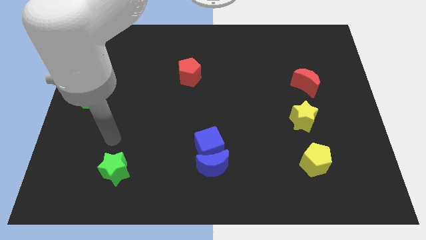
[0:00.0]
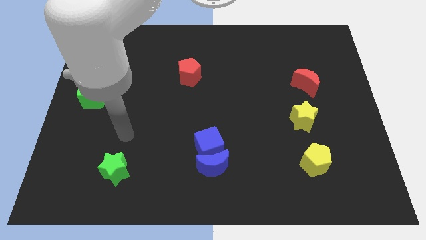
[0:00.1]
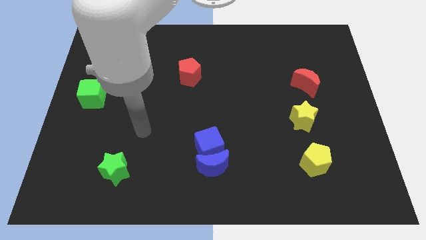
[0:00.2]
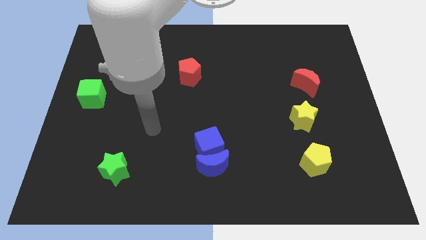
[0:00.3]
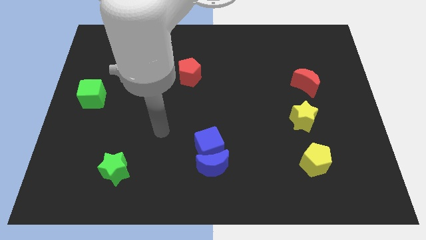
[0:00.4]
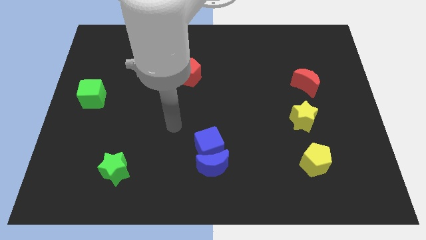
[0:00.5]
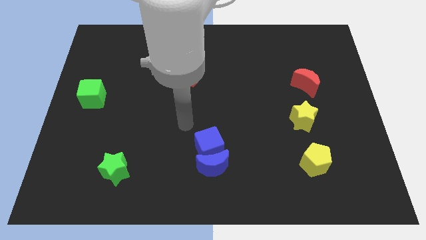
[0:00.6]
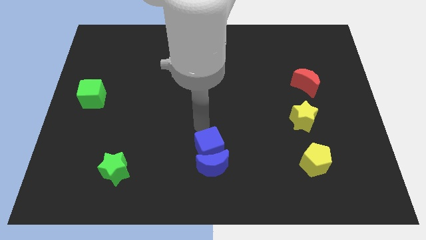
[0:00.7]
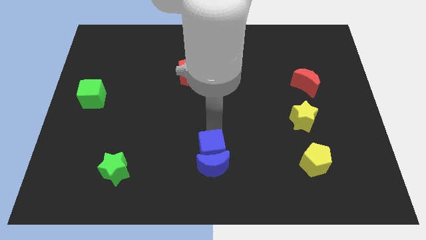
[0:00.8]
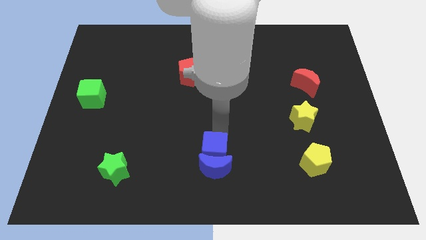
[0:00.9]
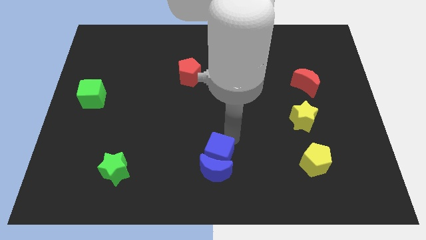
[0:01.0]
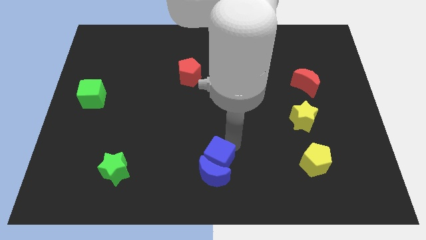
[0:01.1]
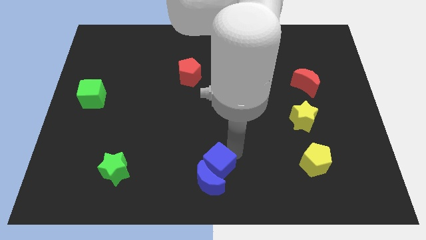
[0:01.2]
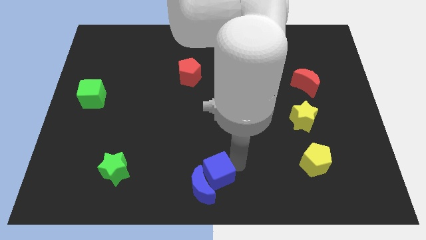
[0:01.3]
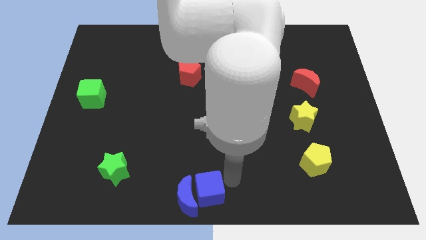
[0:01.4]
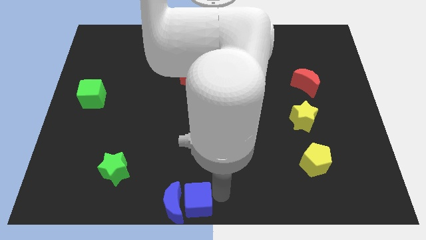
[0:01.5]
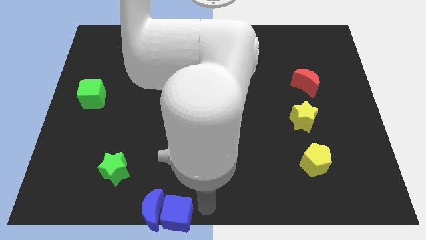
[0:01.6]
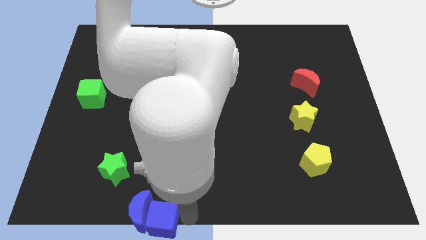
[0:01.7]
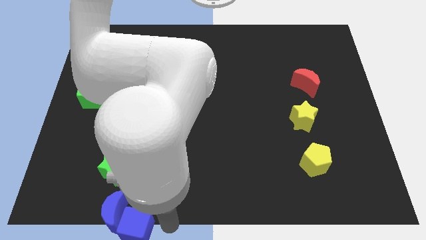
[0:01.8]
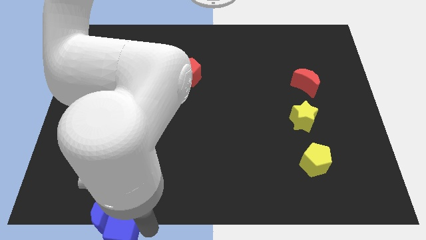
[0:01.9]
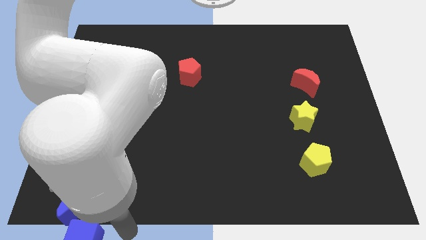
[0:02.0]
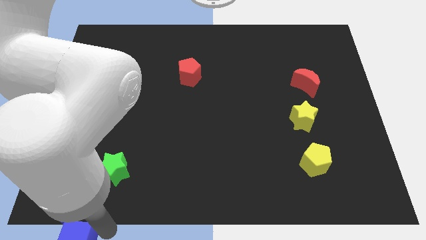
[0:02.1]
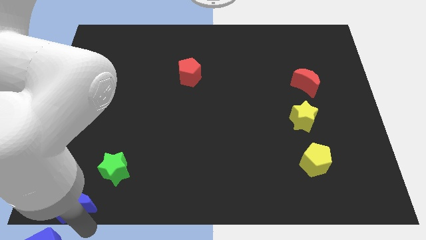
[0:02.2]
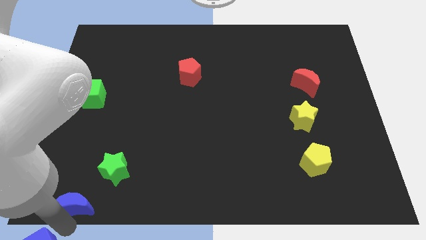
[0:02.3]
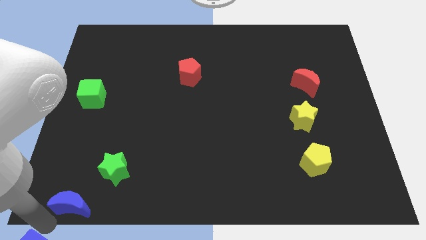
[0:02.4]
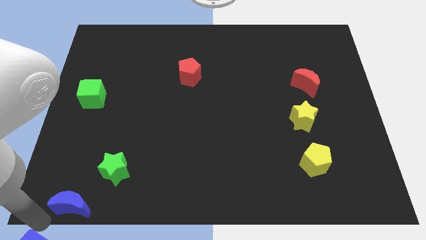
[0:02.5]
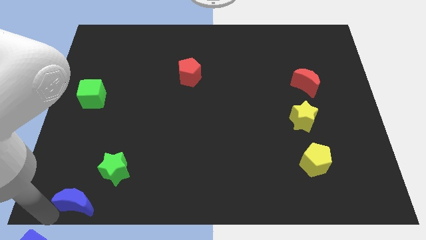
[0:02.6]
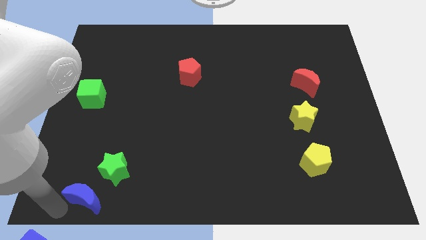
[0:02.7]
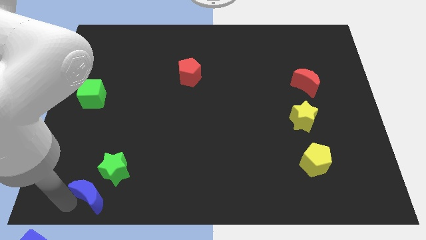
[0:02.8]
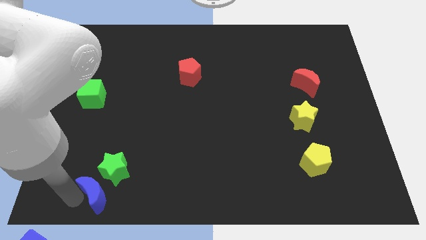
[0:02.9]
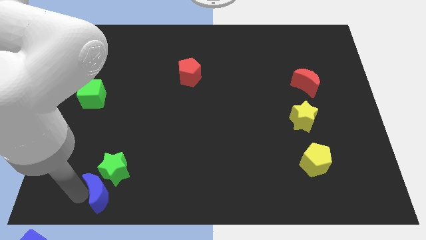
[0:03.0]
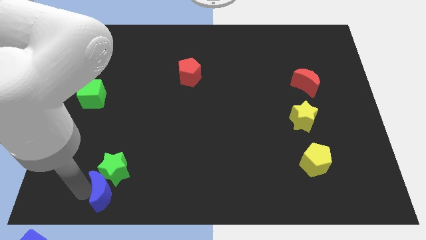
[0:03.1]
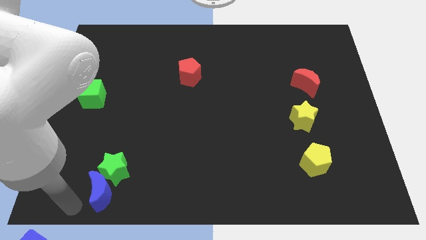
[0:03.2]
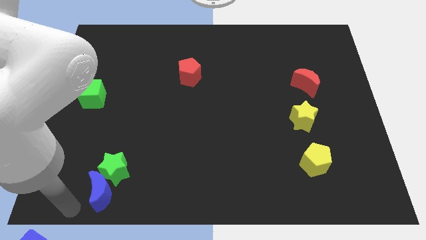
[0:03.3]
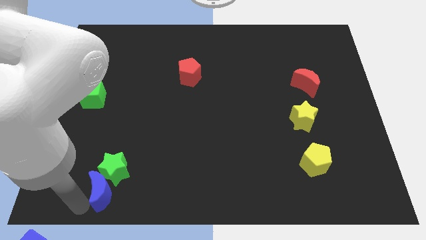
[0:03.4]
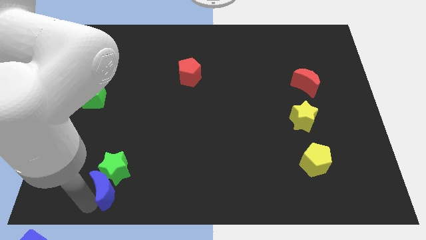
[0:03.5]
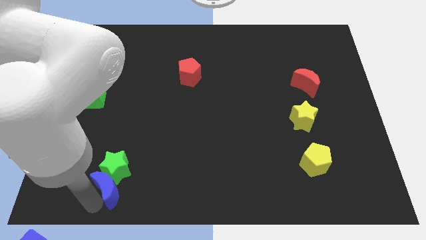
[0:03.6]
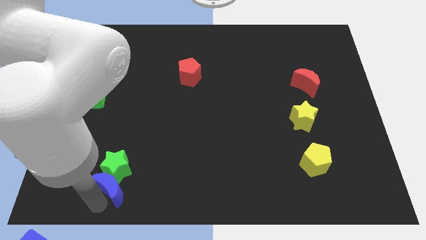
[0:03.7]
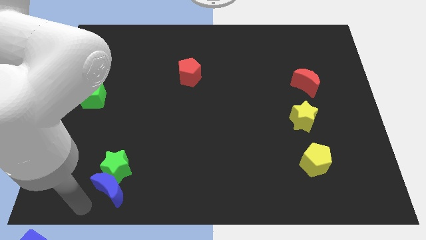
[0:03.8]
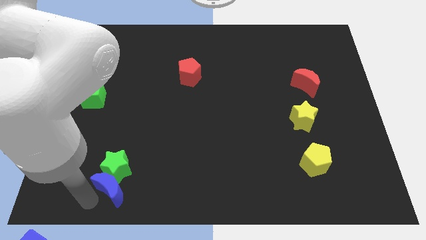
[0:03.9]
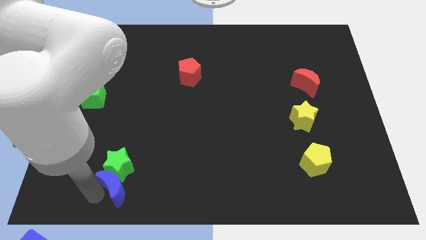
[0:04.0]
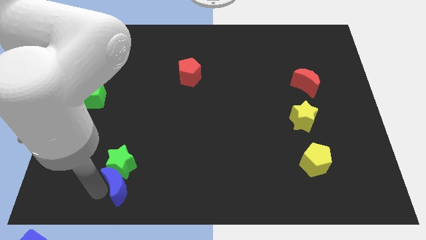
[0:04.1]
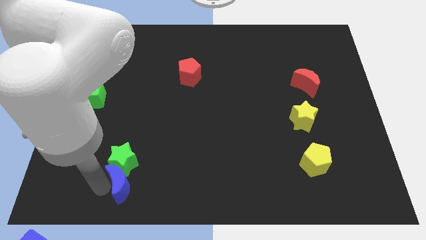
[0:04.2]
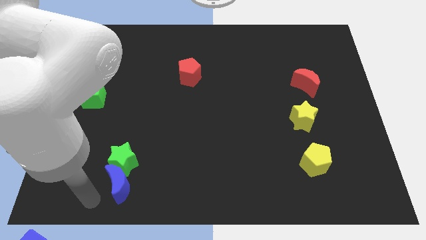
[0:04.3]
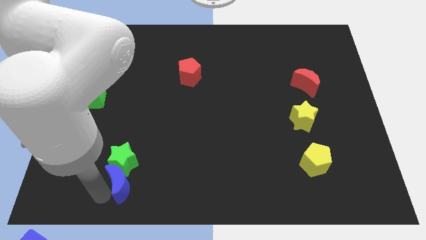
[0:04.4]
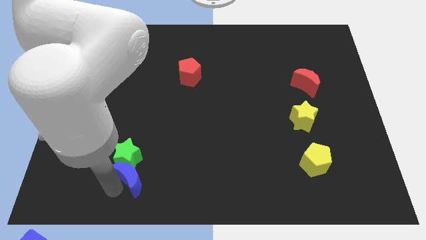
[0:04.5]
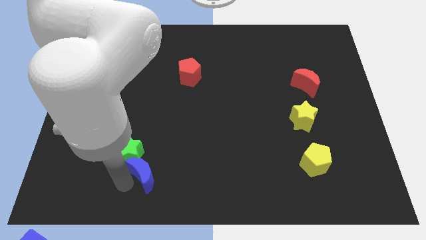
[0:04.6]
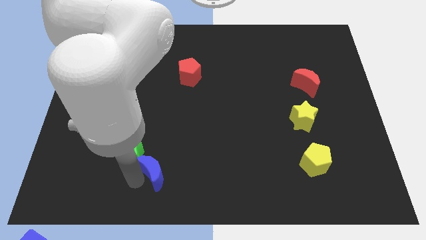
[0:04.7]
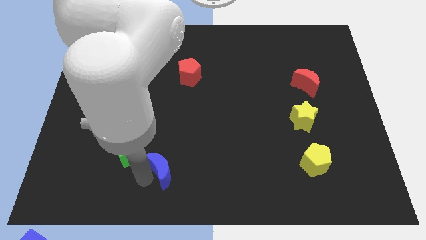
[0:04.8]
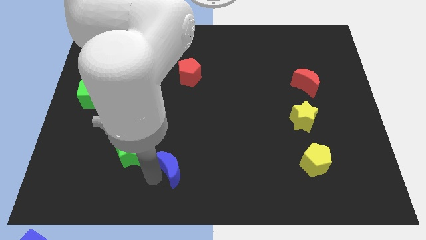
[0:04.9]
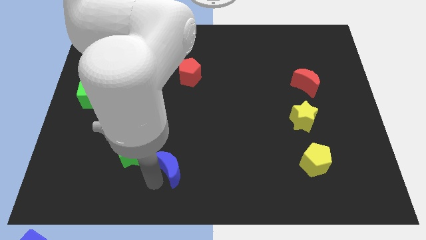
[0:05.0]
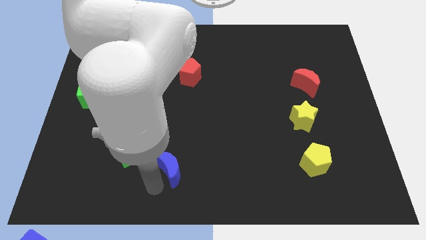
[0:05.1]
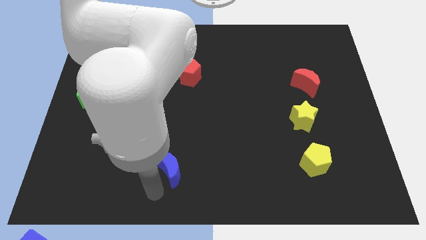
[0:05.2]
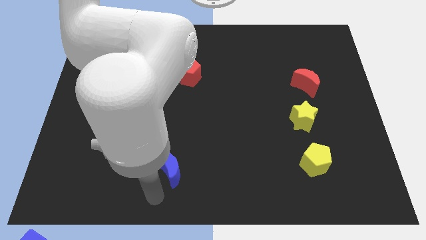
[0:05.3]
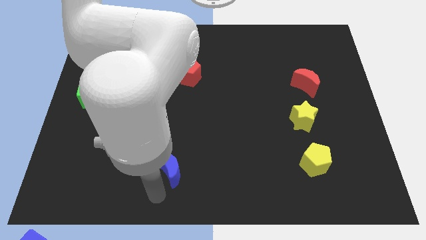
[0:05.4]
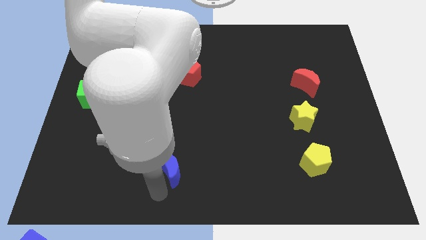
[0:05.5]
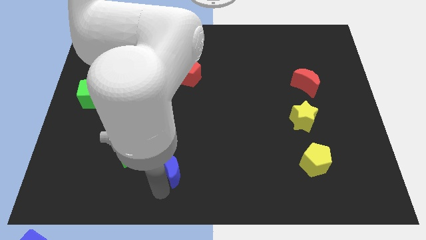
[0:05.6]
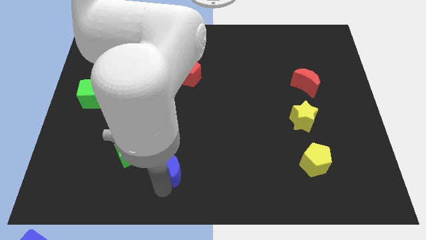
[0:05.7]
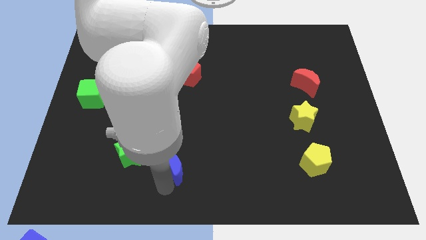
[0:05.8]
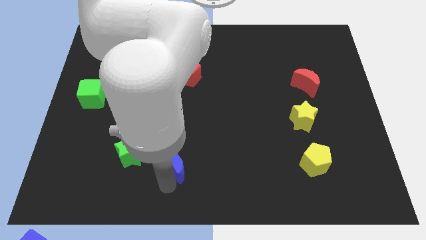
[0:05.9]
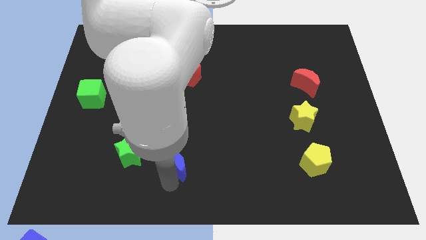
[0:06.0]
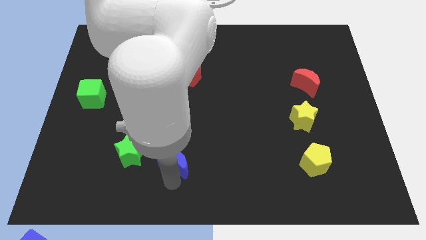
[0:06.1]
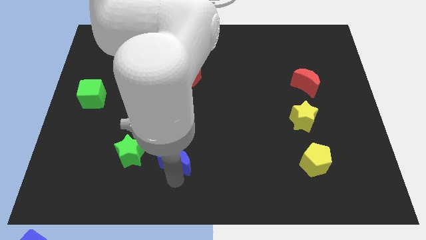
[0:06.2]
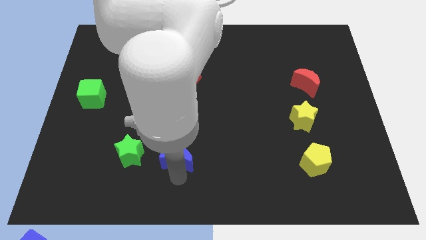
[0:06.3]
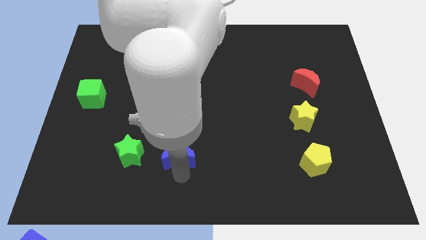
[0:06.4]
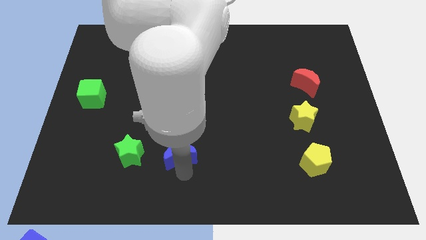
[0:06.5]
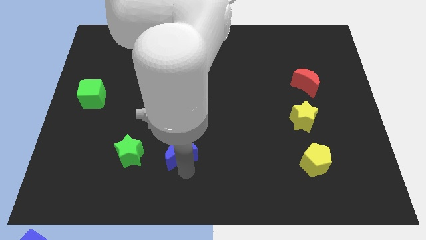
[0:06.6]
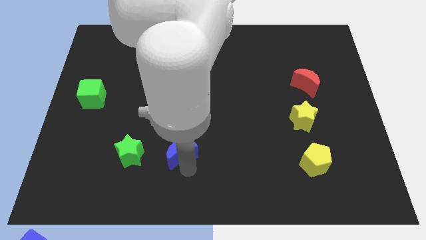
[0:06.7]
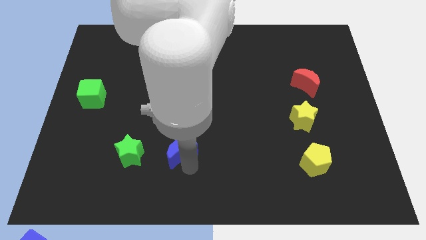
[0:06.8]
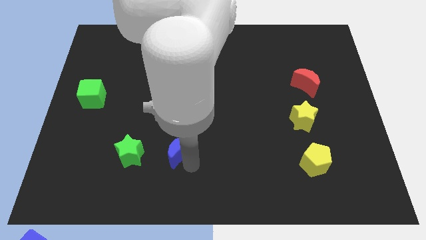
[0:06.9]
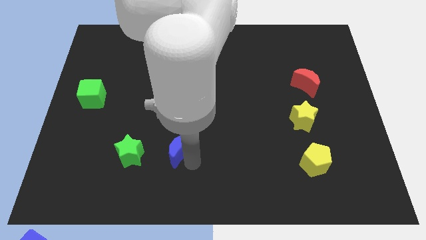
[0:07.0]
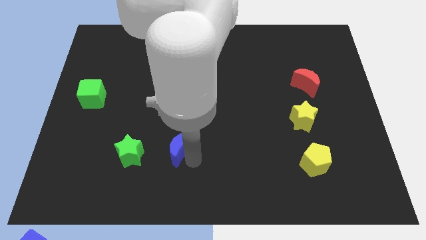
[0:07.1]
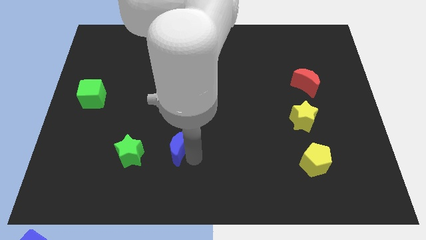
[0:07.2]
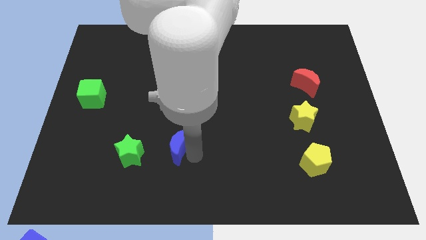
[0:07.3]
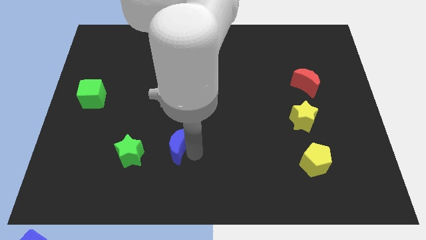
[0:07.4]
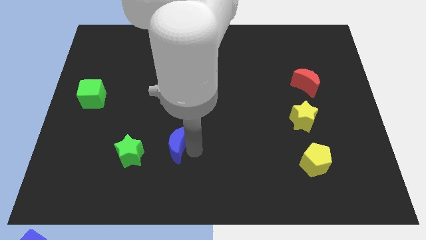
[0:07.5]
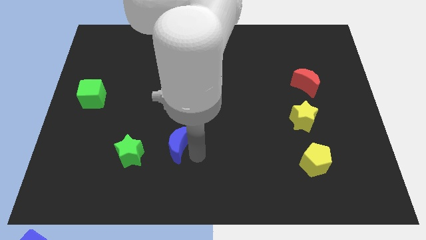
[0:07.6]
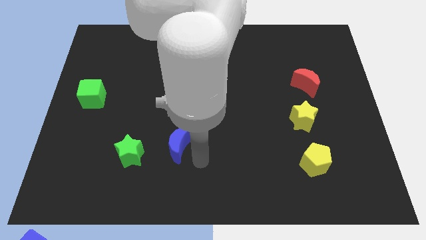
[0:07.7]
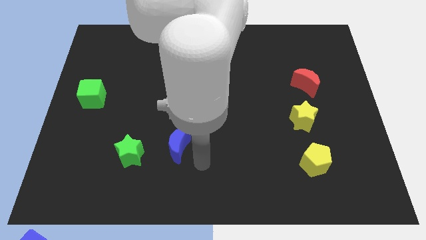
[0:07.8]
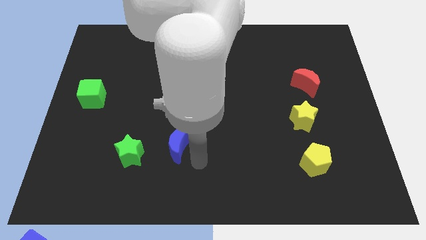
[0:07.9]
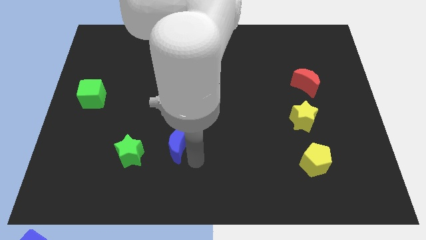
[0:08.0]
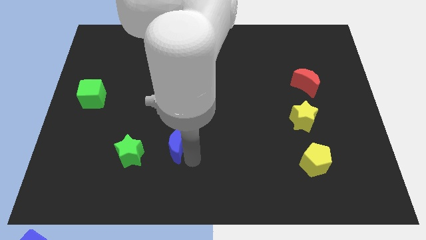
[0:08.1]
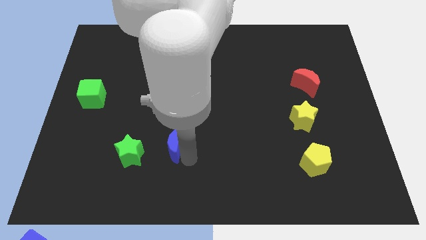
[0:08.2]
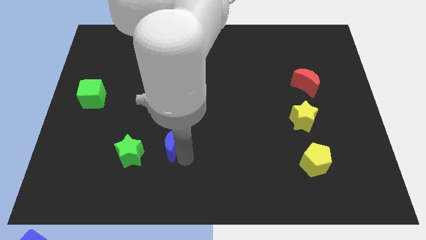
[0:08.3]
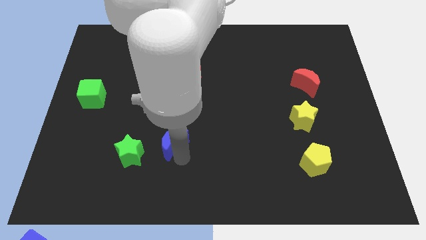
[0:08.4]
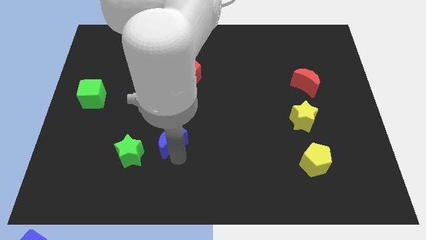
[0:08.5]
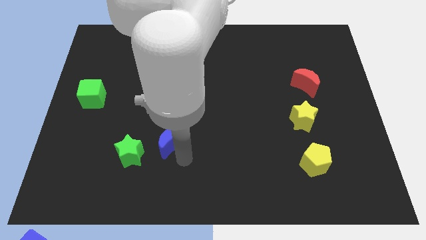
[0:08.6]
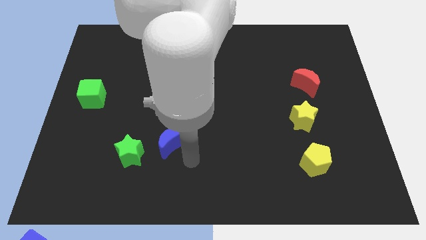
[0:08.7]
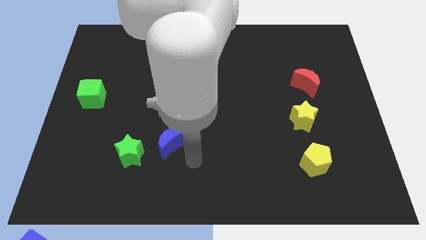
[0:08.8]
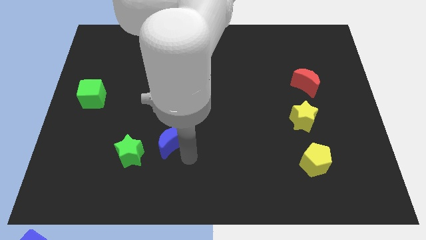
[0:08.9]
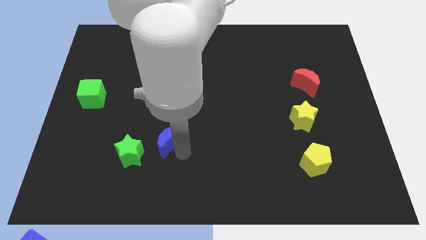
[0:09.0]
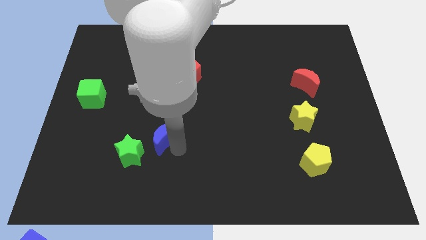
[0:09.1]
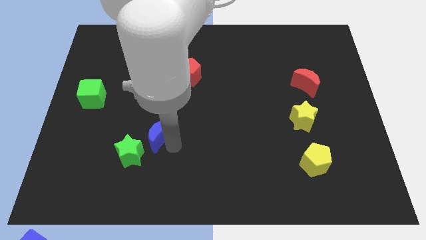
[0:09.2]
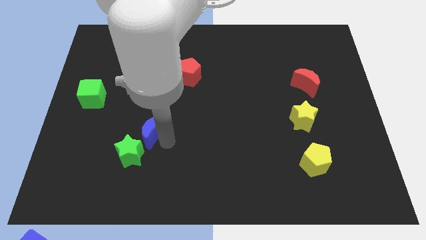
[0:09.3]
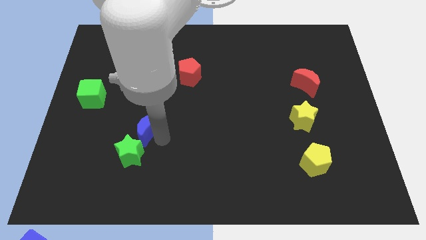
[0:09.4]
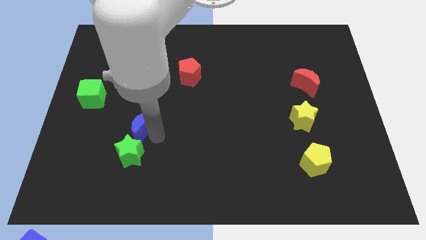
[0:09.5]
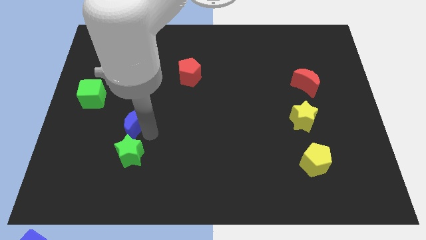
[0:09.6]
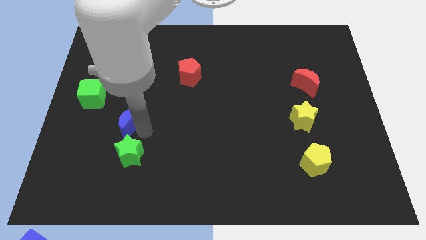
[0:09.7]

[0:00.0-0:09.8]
move the blue moon diagonally upwards and to the left
